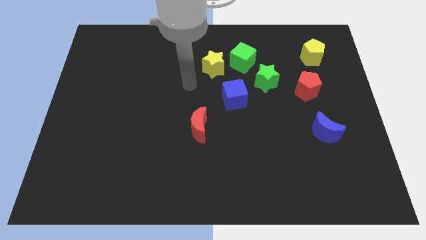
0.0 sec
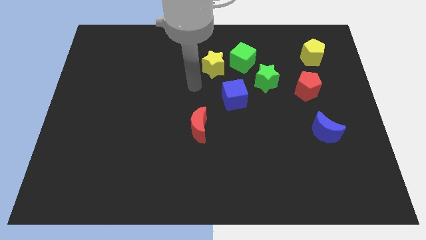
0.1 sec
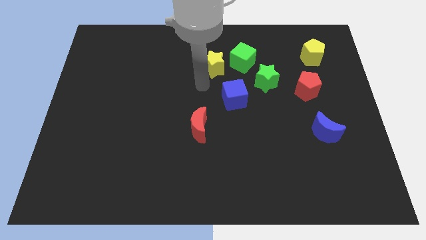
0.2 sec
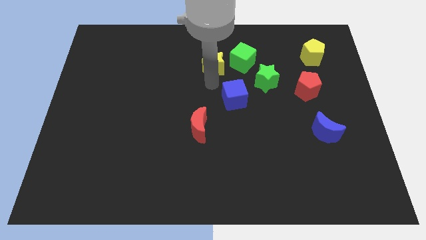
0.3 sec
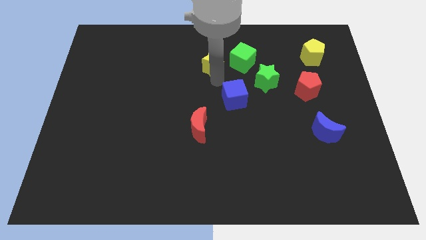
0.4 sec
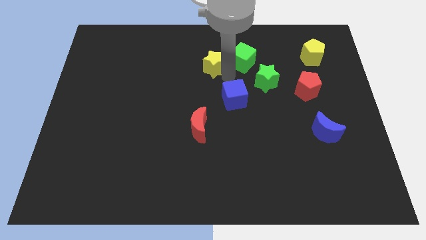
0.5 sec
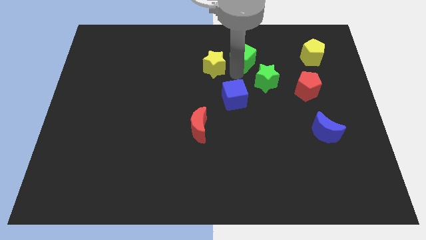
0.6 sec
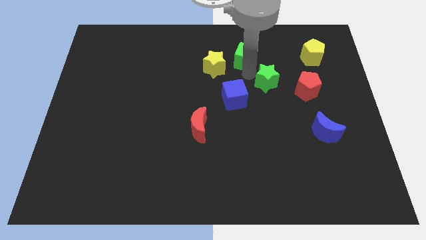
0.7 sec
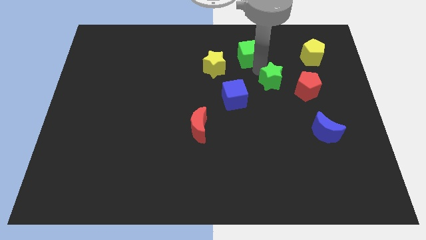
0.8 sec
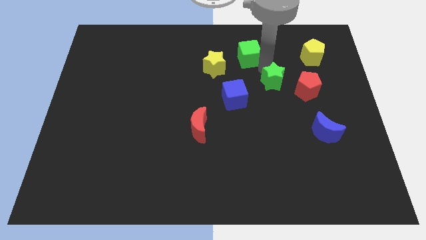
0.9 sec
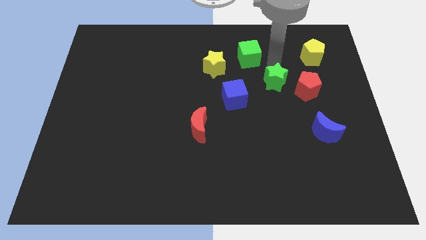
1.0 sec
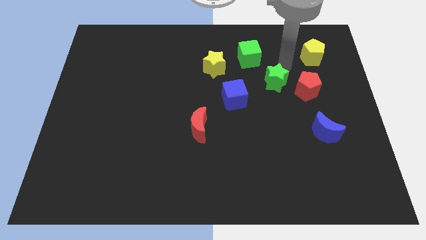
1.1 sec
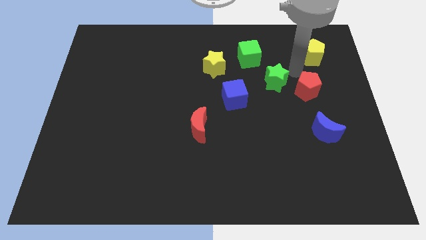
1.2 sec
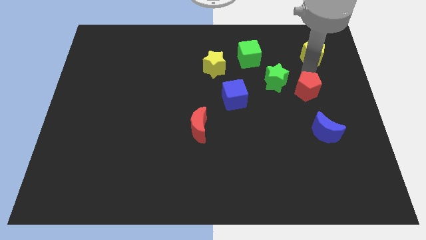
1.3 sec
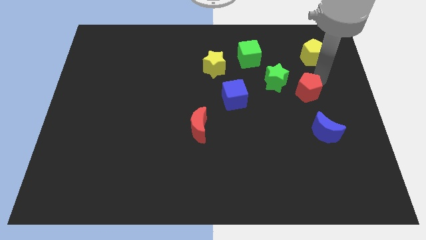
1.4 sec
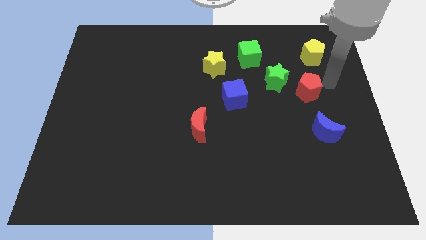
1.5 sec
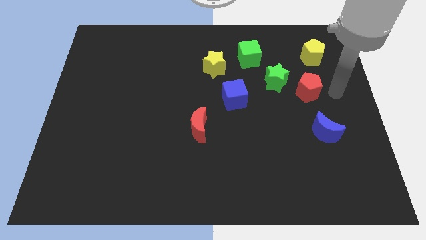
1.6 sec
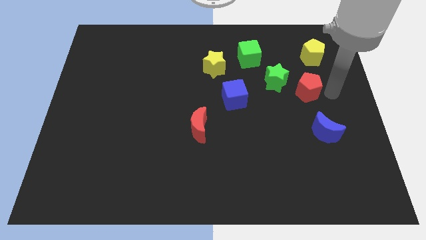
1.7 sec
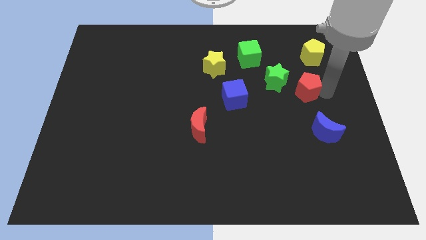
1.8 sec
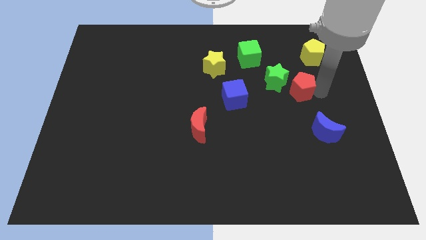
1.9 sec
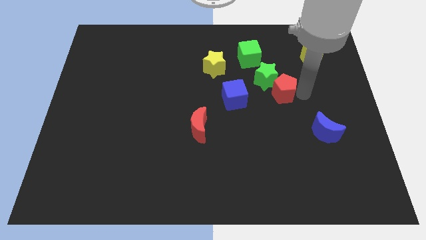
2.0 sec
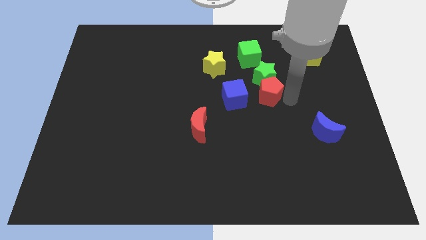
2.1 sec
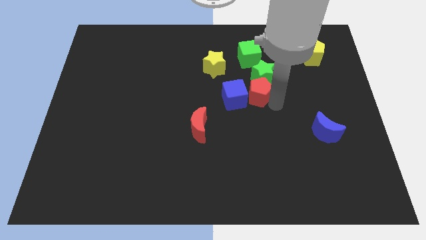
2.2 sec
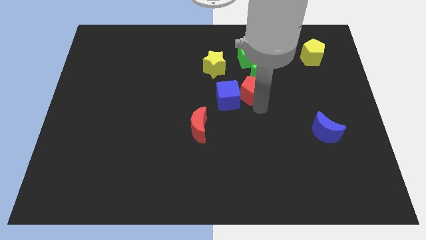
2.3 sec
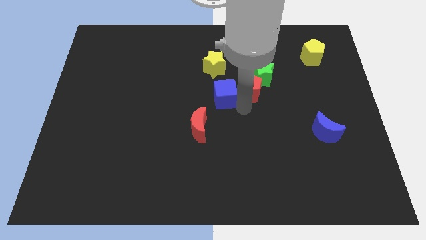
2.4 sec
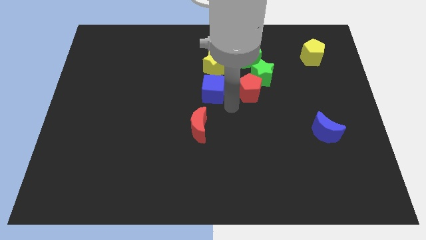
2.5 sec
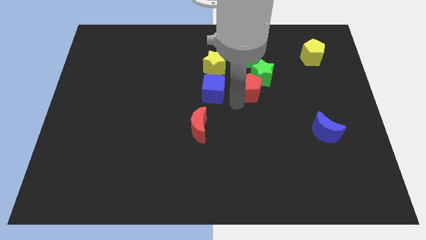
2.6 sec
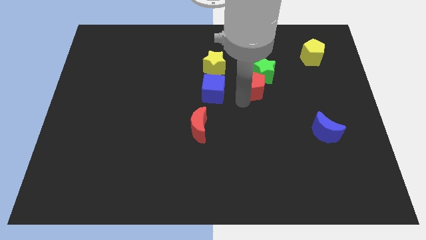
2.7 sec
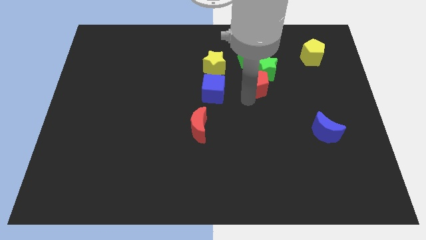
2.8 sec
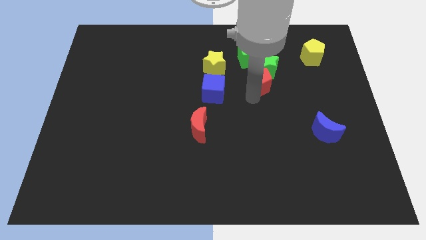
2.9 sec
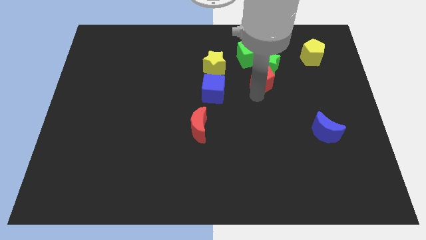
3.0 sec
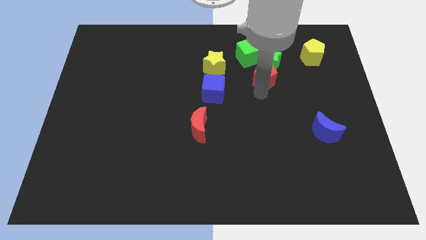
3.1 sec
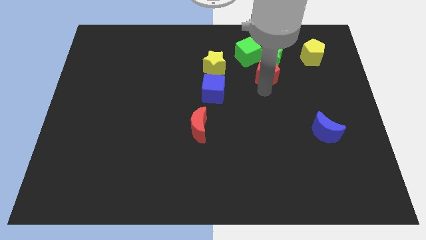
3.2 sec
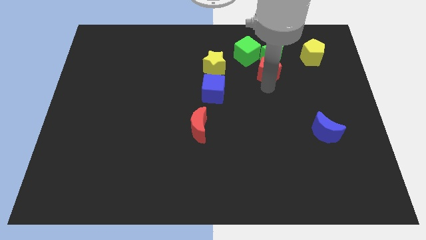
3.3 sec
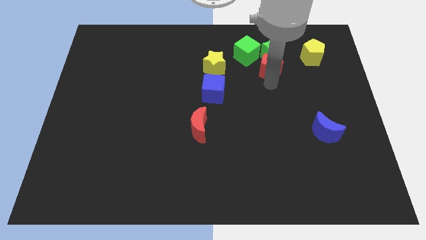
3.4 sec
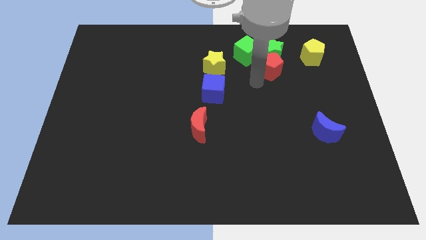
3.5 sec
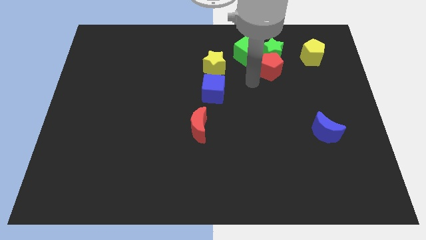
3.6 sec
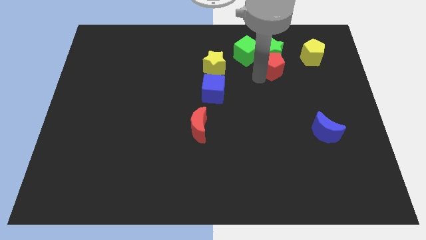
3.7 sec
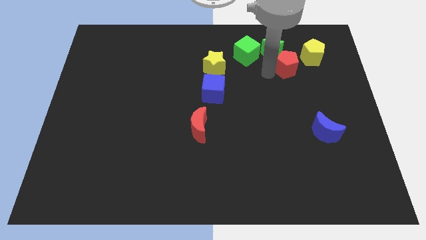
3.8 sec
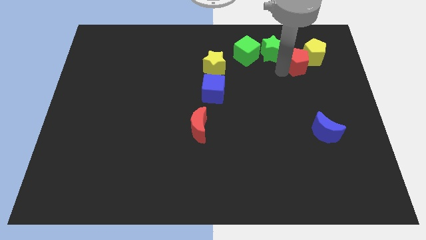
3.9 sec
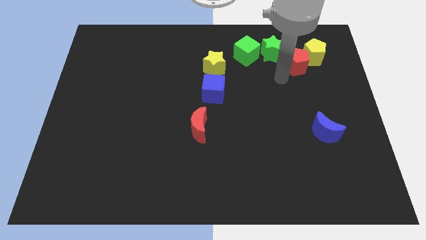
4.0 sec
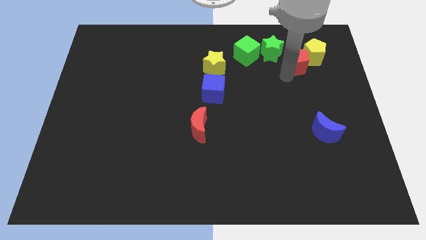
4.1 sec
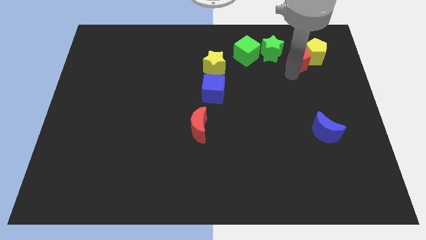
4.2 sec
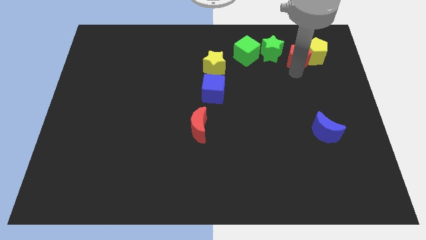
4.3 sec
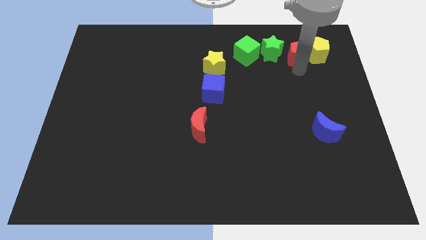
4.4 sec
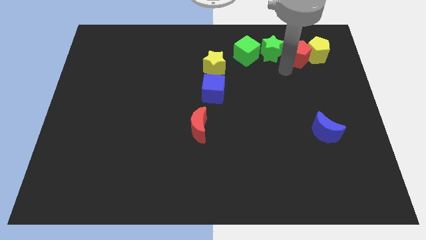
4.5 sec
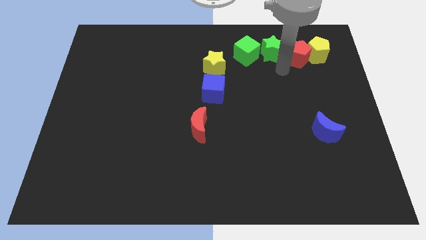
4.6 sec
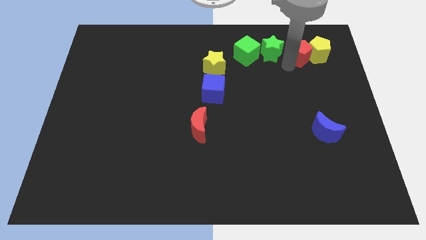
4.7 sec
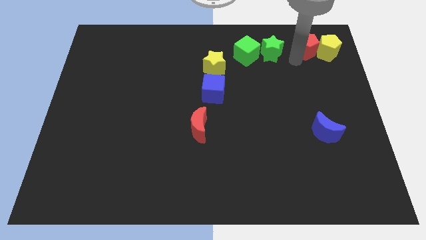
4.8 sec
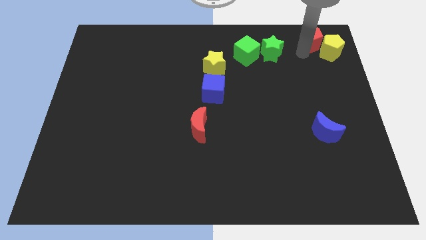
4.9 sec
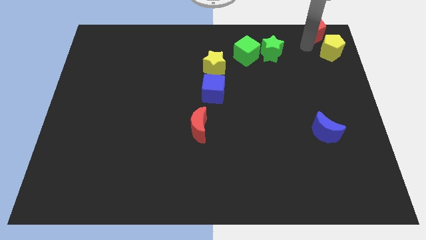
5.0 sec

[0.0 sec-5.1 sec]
slide the red pentagon to the top right
